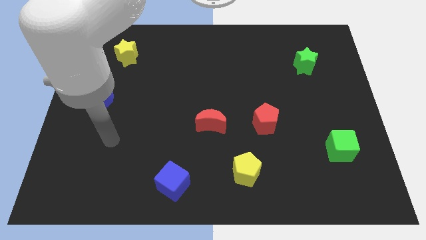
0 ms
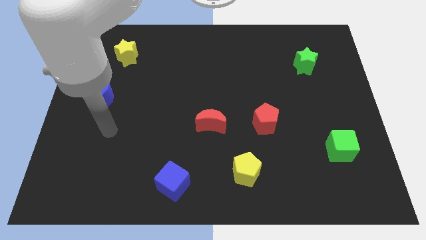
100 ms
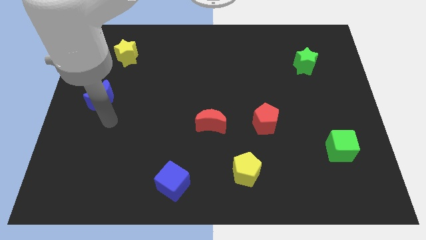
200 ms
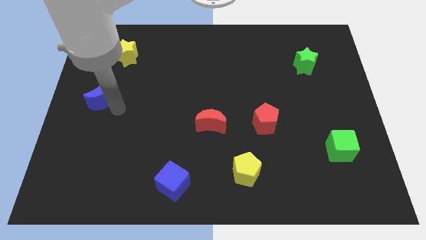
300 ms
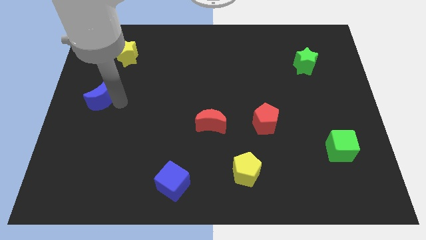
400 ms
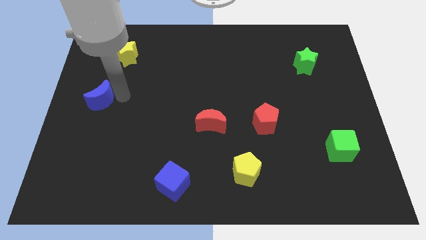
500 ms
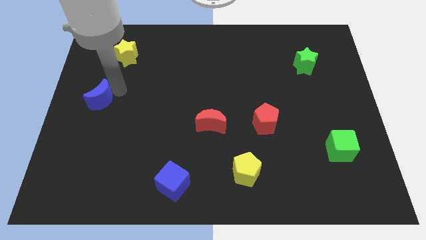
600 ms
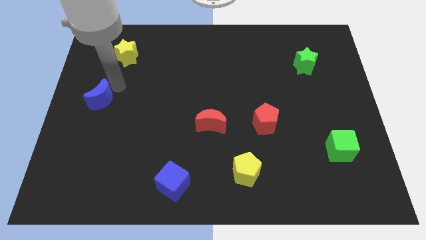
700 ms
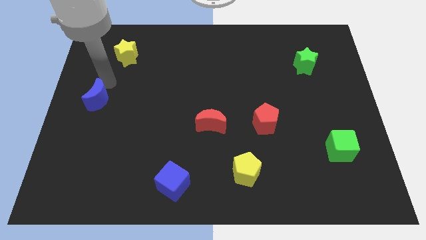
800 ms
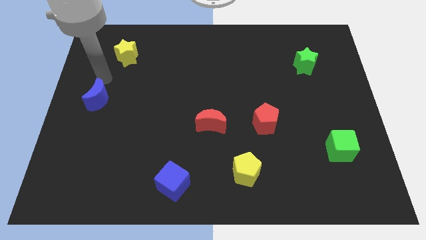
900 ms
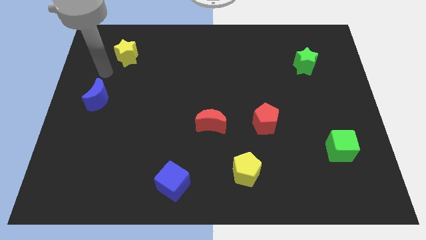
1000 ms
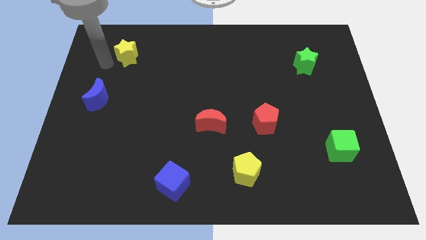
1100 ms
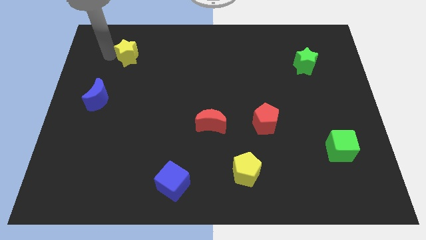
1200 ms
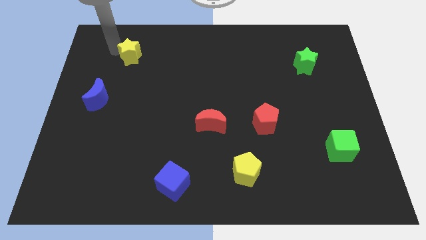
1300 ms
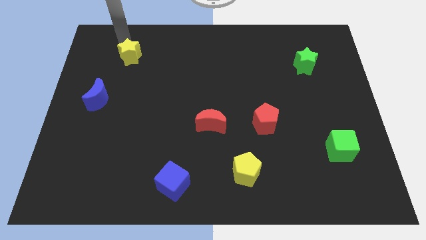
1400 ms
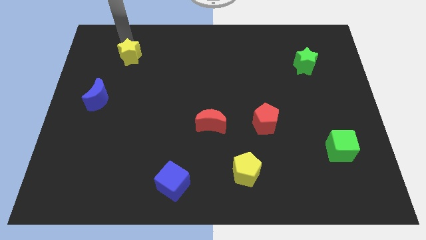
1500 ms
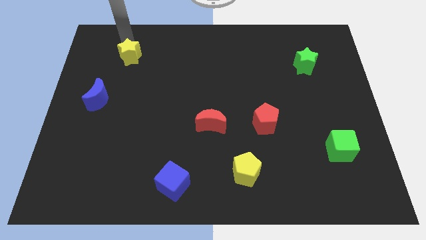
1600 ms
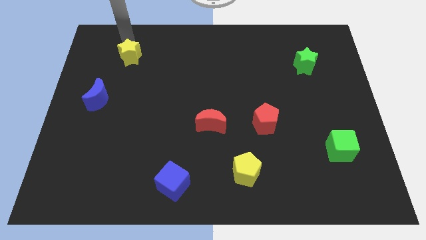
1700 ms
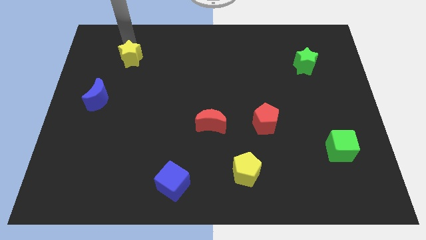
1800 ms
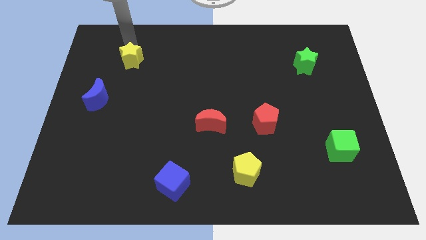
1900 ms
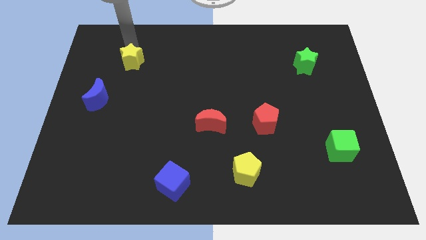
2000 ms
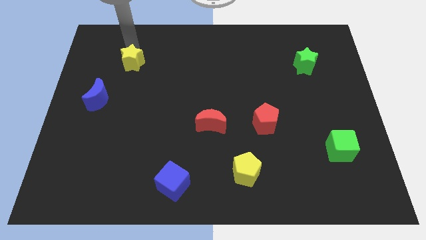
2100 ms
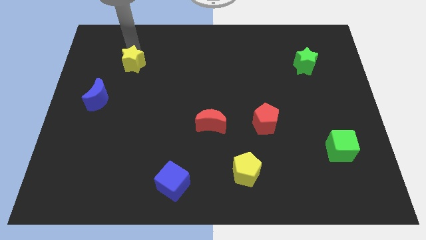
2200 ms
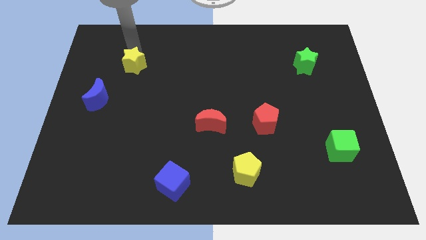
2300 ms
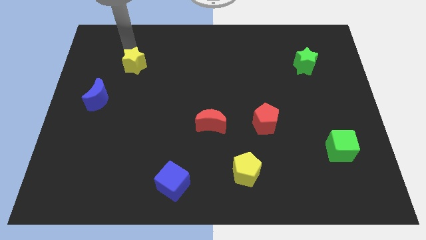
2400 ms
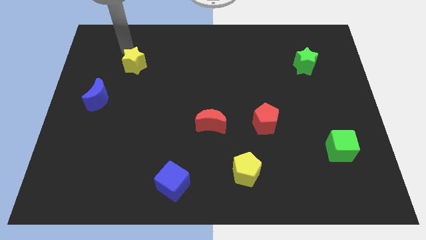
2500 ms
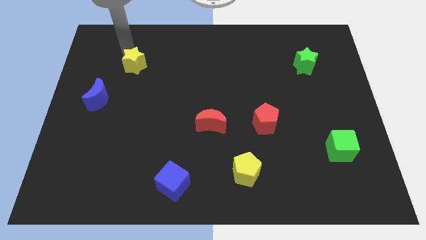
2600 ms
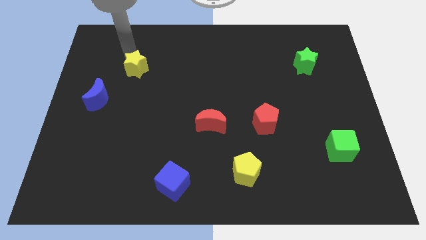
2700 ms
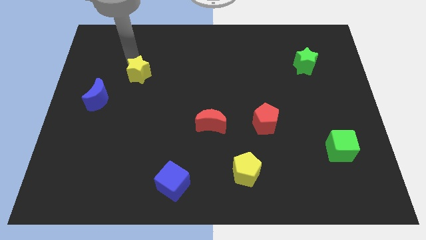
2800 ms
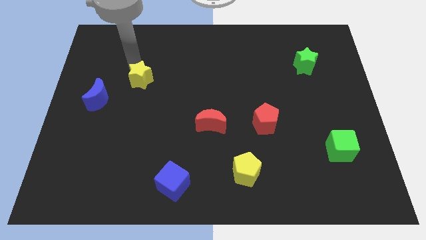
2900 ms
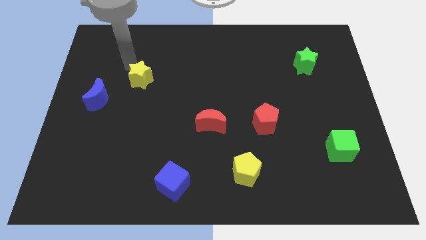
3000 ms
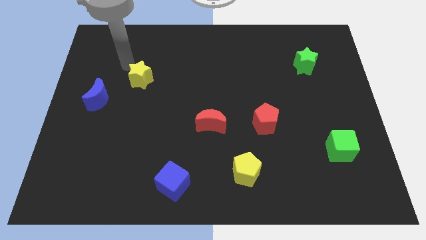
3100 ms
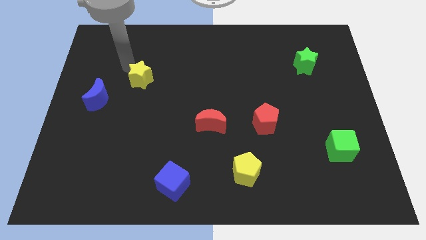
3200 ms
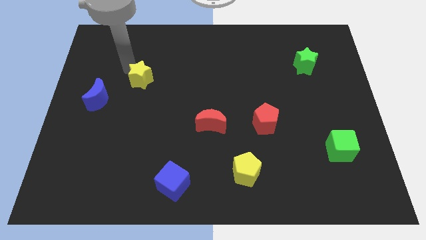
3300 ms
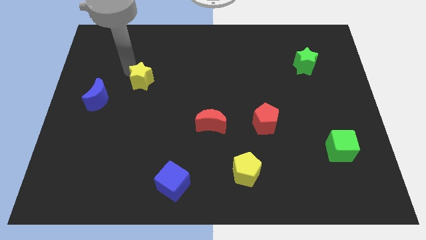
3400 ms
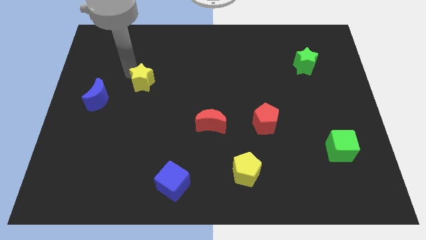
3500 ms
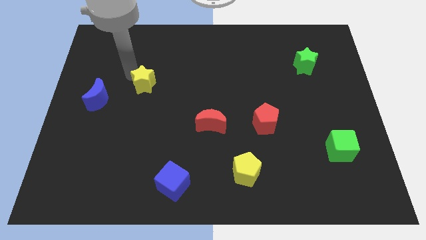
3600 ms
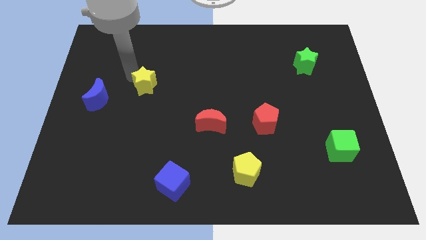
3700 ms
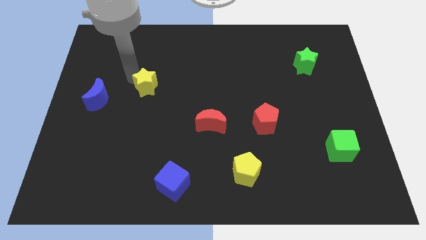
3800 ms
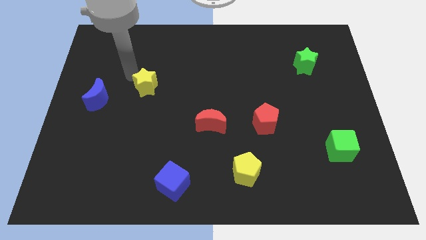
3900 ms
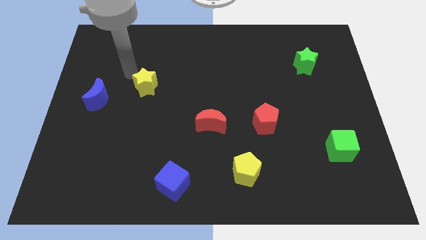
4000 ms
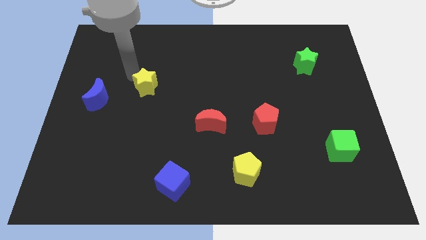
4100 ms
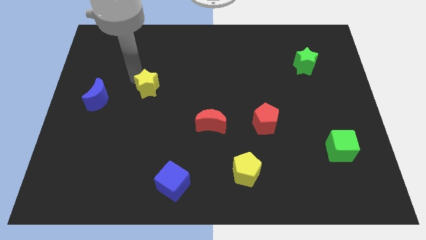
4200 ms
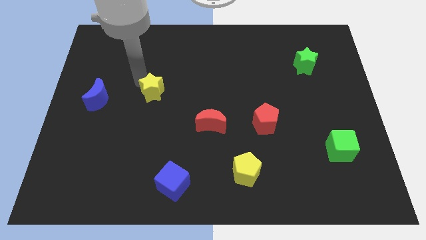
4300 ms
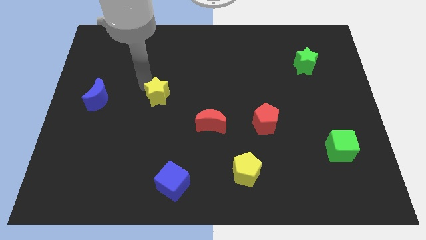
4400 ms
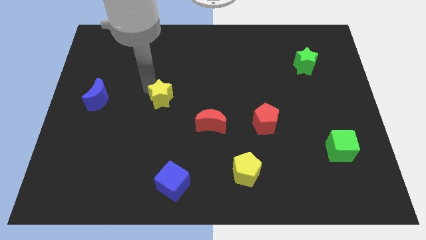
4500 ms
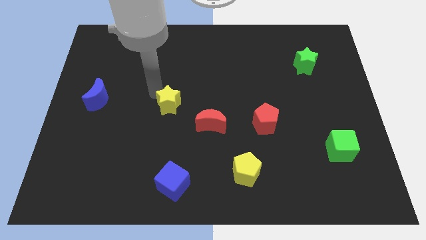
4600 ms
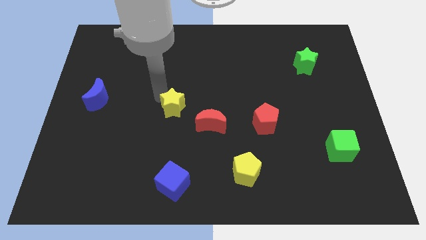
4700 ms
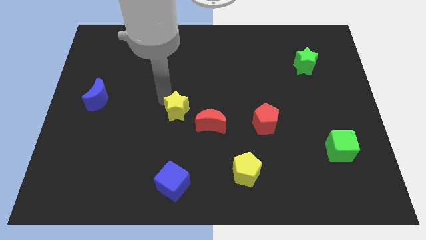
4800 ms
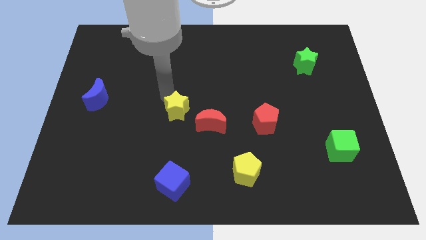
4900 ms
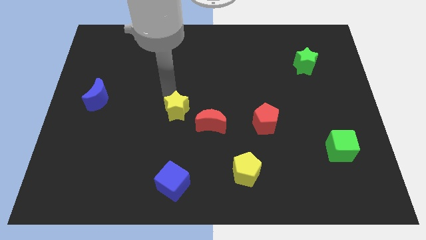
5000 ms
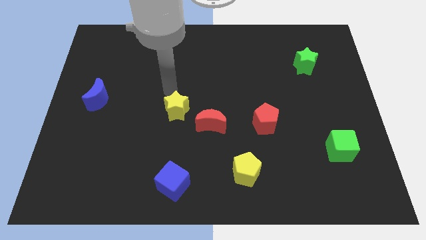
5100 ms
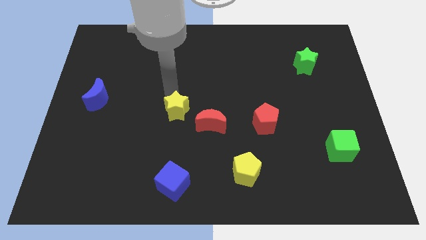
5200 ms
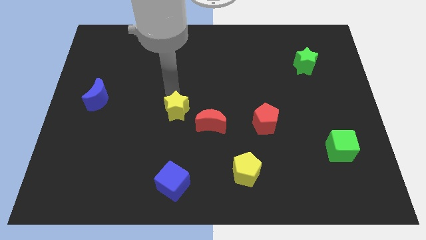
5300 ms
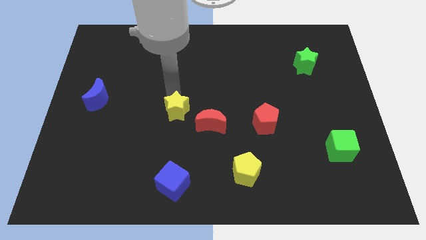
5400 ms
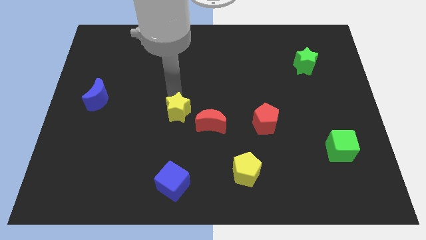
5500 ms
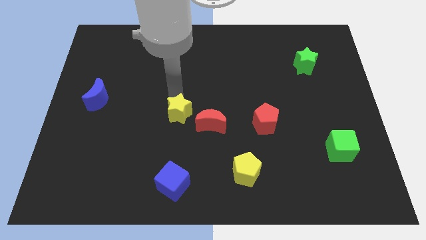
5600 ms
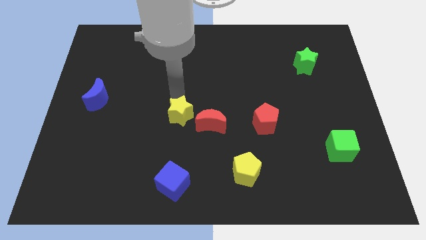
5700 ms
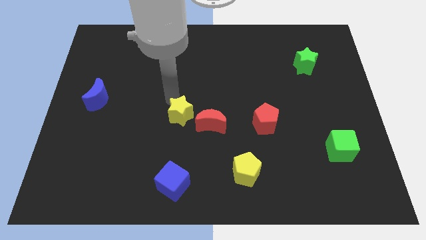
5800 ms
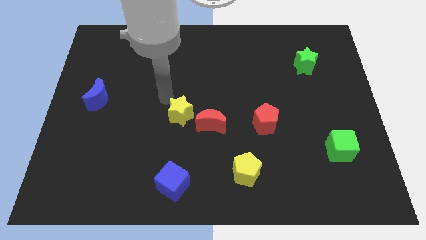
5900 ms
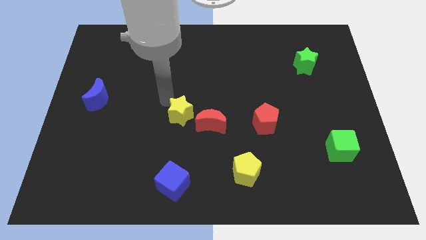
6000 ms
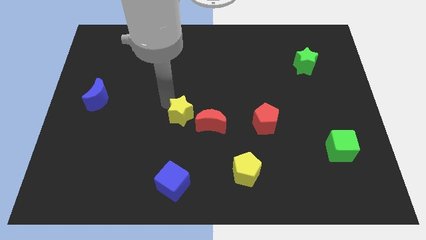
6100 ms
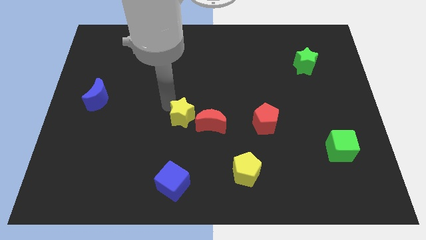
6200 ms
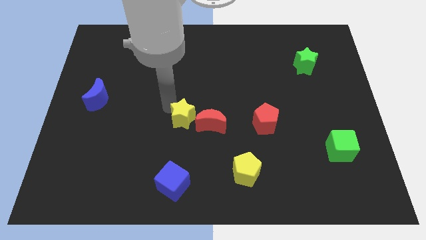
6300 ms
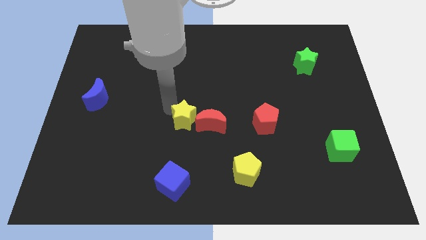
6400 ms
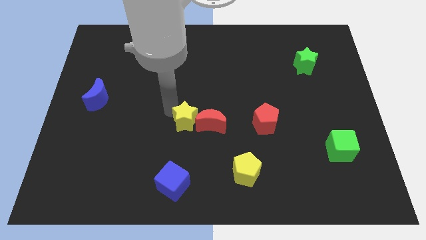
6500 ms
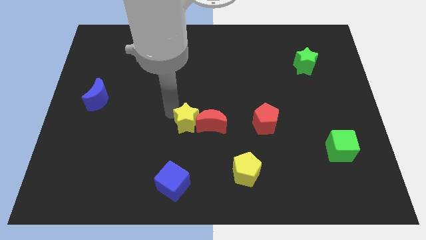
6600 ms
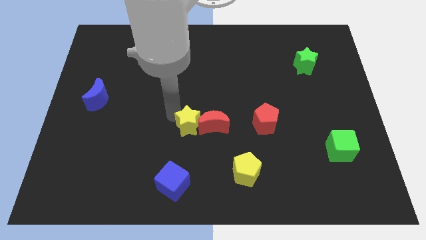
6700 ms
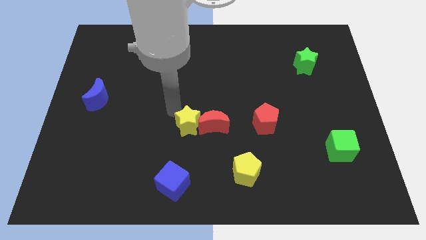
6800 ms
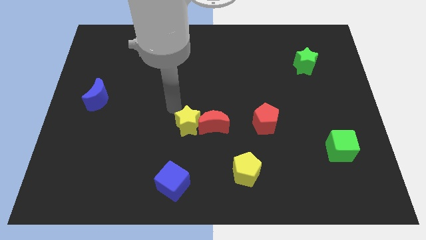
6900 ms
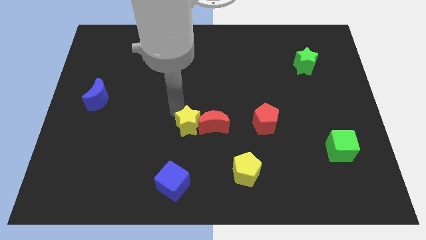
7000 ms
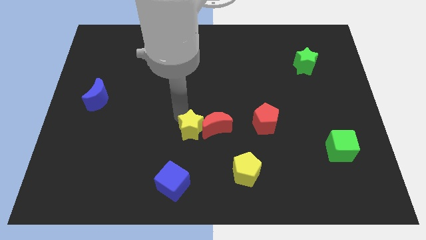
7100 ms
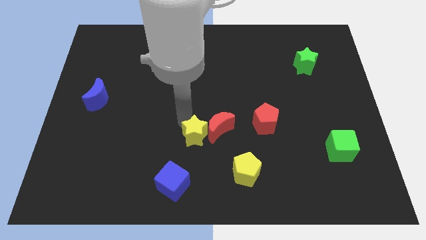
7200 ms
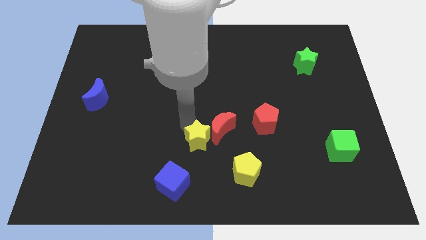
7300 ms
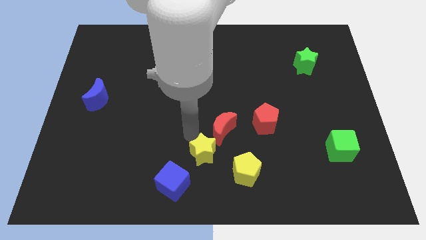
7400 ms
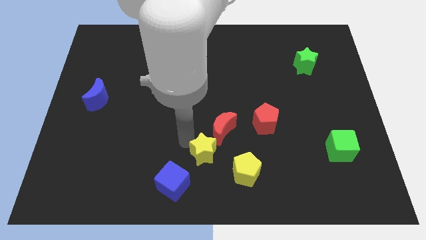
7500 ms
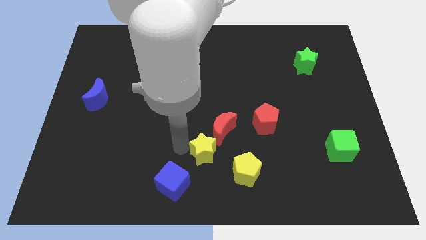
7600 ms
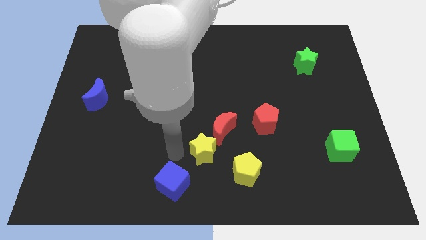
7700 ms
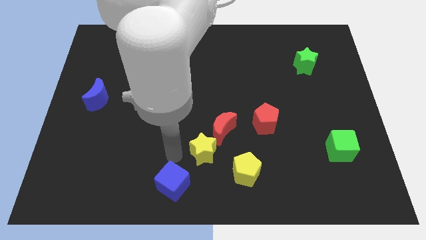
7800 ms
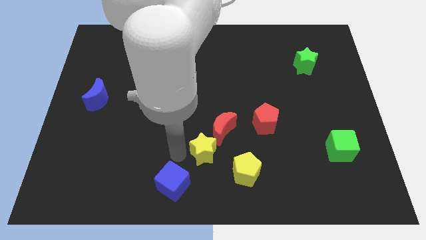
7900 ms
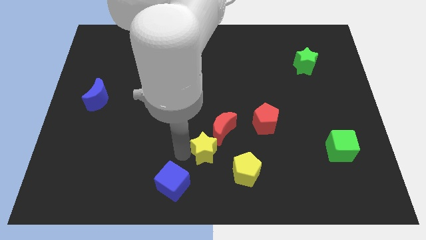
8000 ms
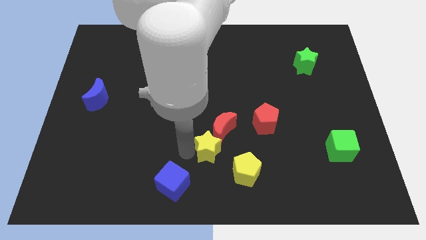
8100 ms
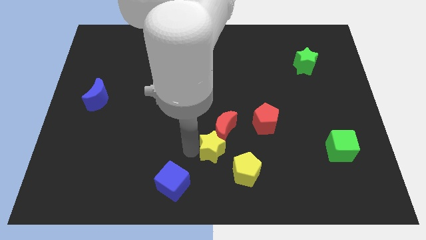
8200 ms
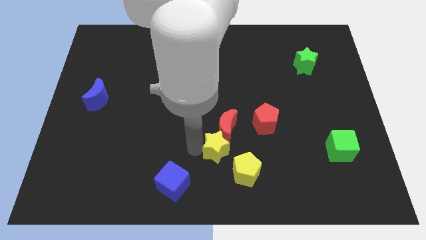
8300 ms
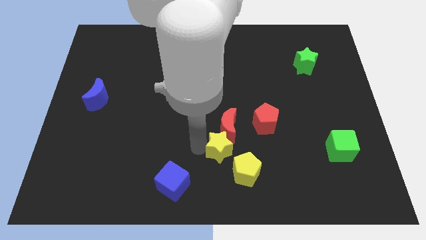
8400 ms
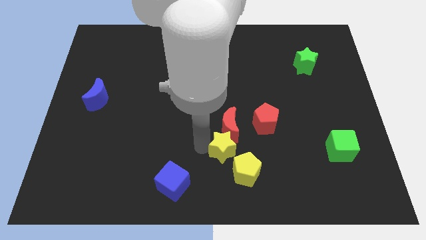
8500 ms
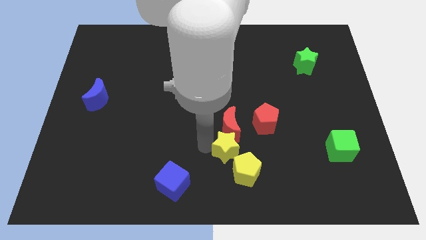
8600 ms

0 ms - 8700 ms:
move the yellow star diagonally down and to the right of the red moon
